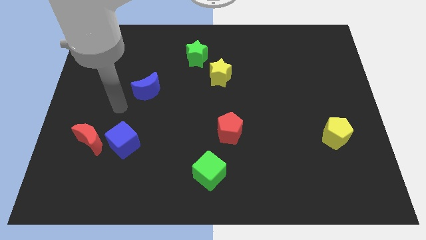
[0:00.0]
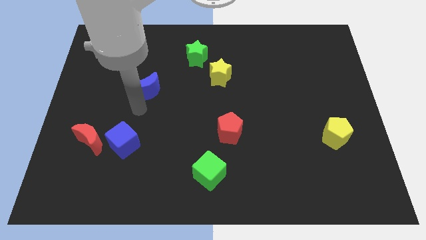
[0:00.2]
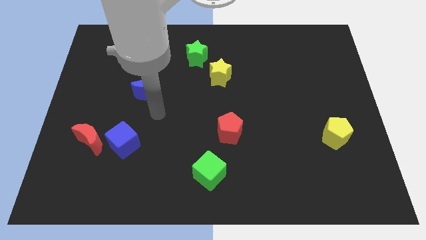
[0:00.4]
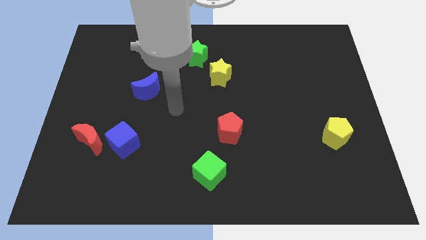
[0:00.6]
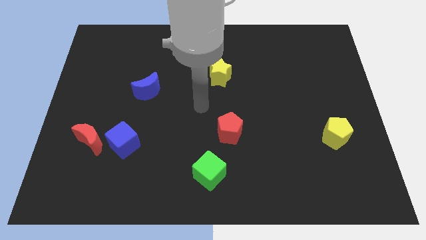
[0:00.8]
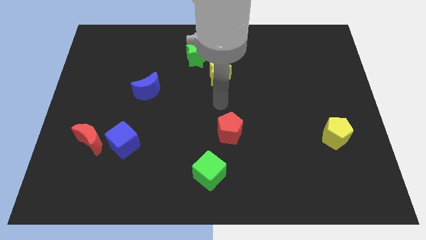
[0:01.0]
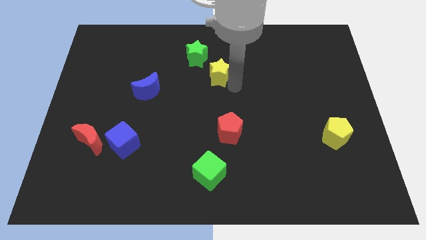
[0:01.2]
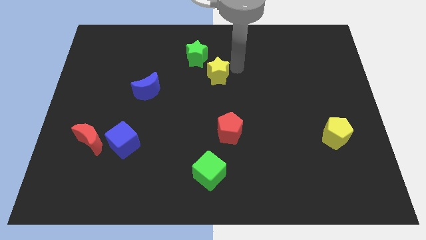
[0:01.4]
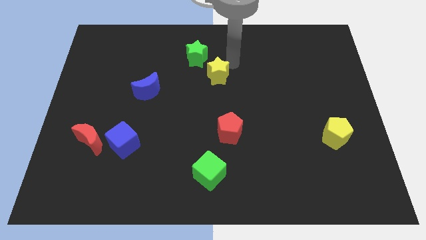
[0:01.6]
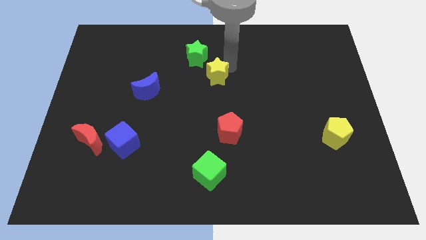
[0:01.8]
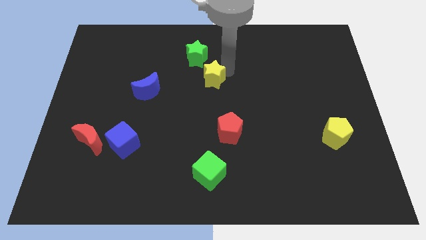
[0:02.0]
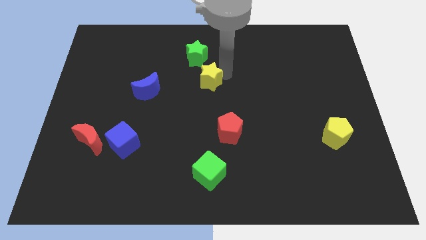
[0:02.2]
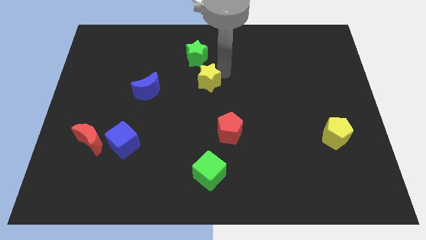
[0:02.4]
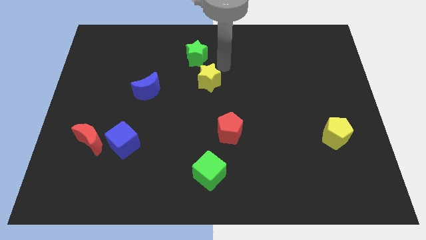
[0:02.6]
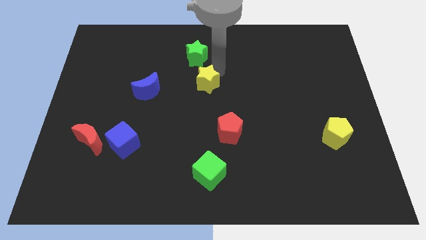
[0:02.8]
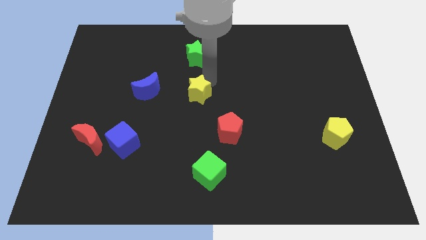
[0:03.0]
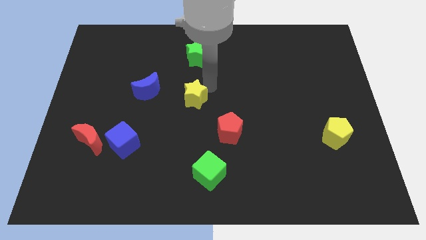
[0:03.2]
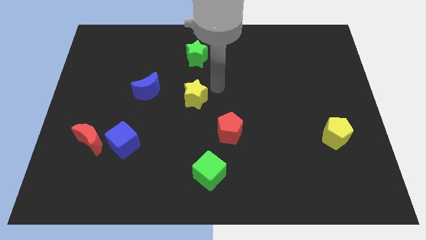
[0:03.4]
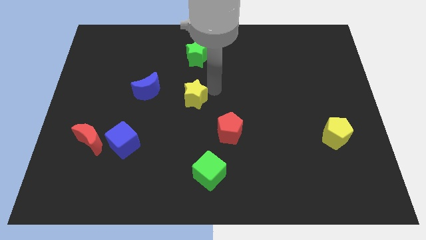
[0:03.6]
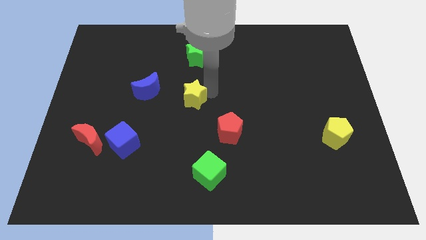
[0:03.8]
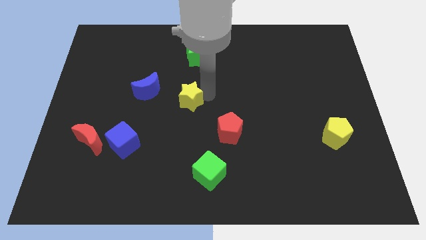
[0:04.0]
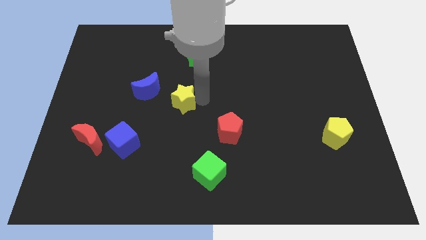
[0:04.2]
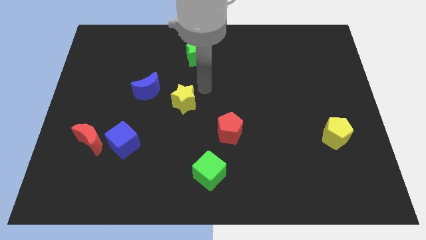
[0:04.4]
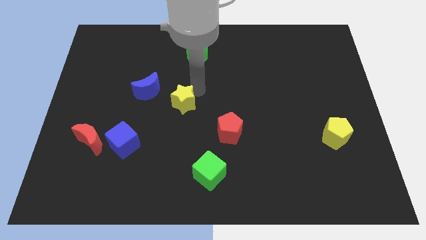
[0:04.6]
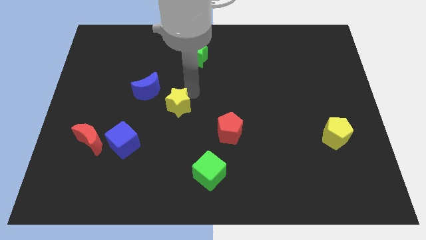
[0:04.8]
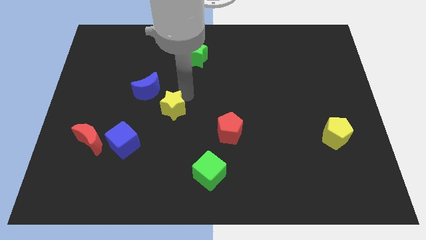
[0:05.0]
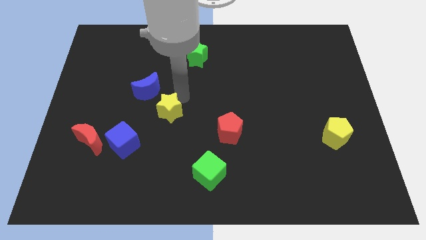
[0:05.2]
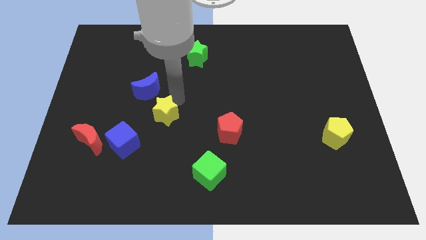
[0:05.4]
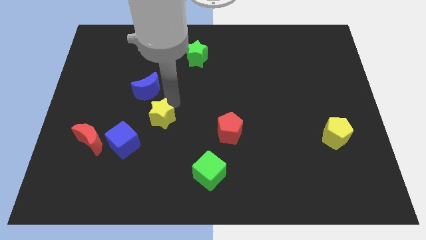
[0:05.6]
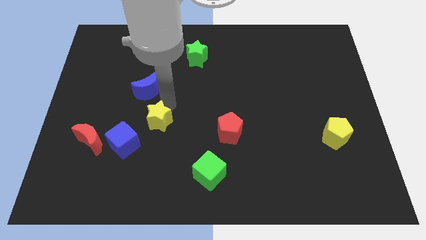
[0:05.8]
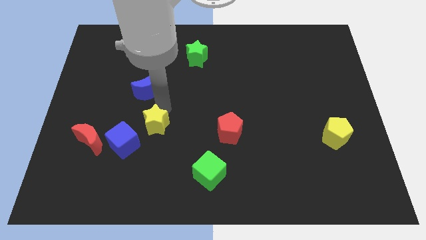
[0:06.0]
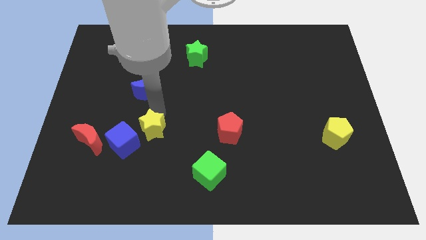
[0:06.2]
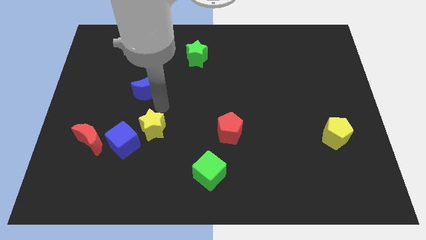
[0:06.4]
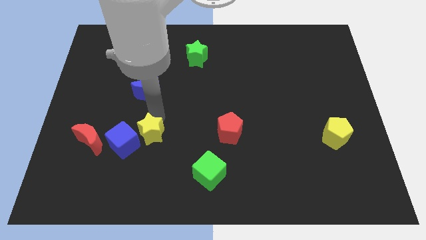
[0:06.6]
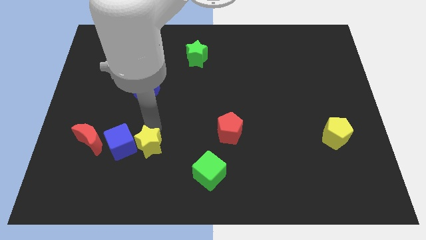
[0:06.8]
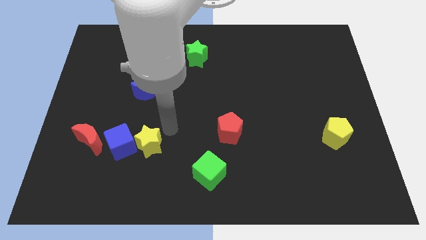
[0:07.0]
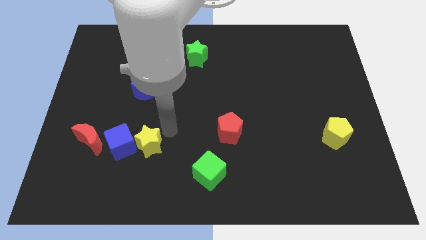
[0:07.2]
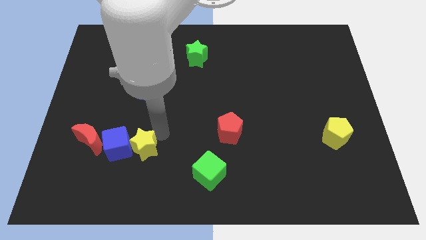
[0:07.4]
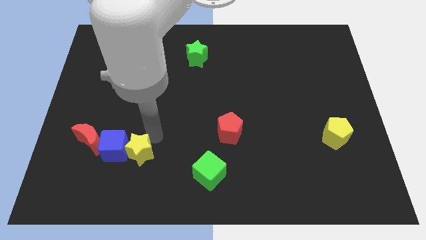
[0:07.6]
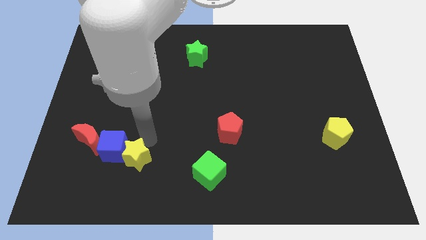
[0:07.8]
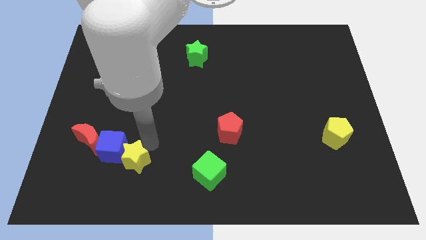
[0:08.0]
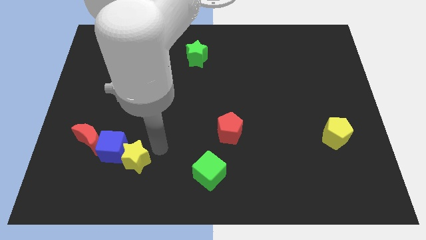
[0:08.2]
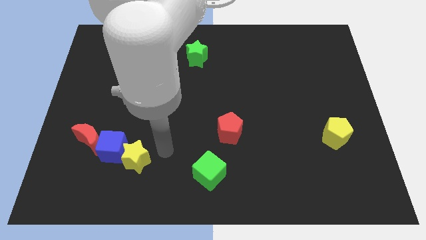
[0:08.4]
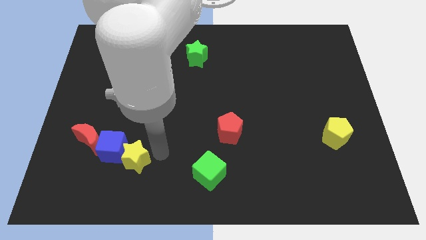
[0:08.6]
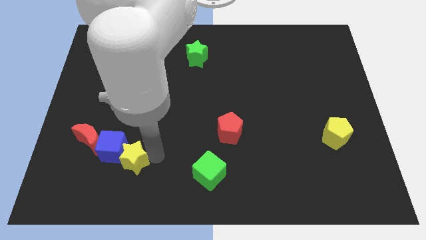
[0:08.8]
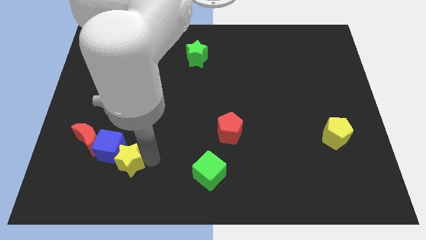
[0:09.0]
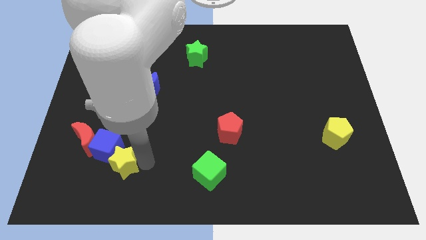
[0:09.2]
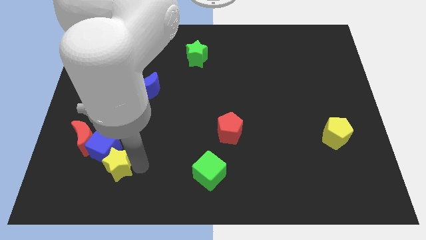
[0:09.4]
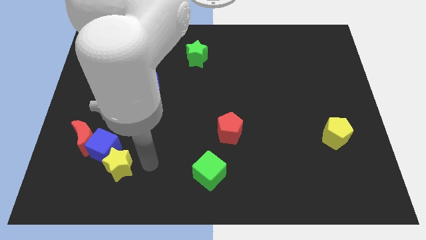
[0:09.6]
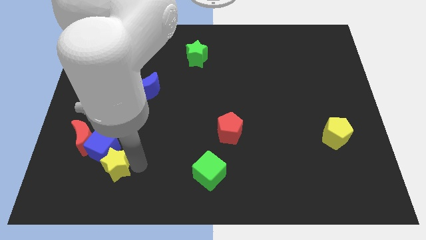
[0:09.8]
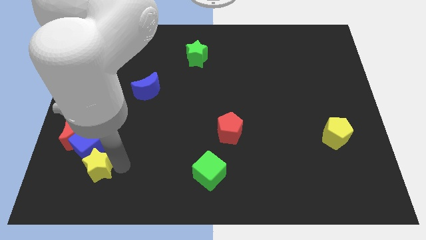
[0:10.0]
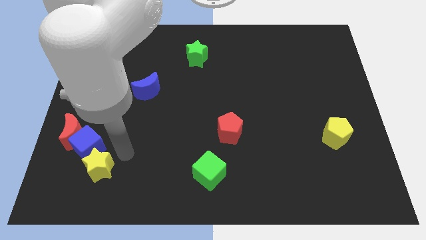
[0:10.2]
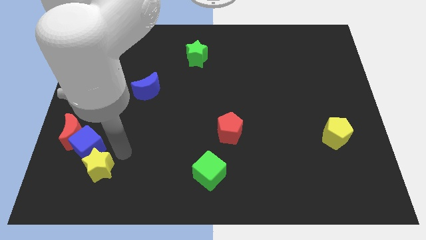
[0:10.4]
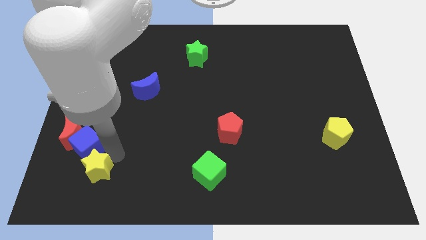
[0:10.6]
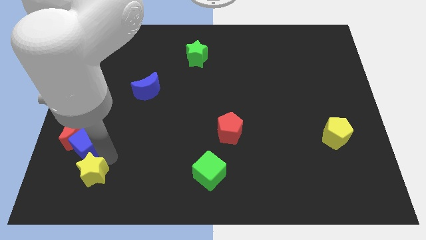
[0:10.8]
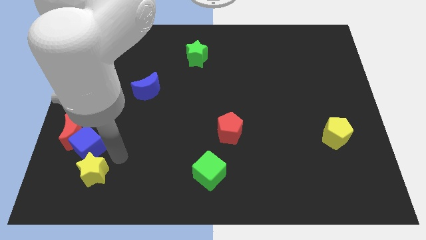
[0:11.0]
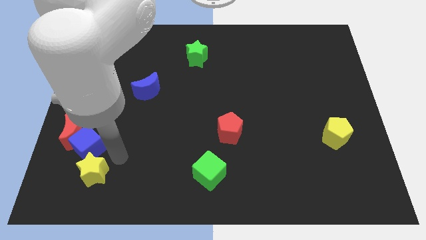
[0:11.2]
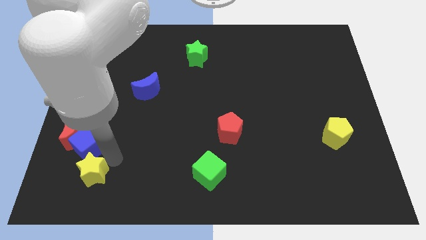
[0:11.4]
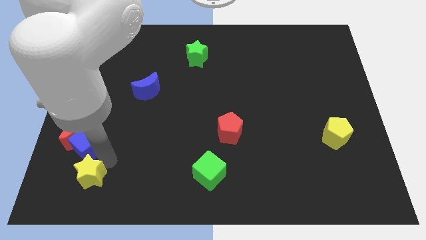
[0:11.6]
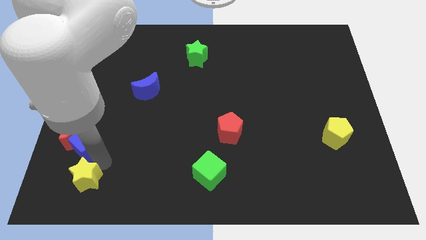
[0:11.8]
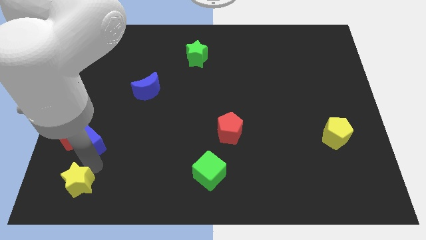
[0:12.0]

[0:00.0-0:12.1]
move the yellow star to the bottom left
